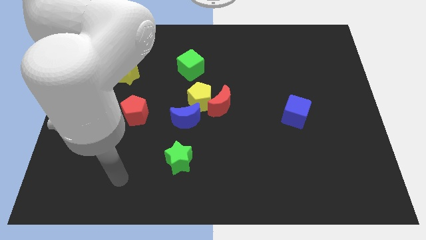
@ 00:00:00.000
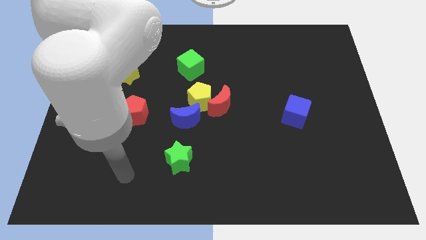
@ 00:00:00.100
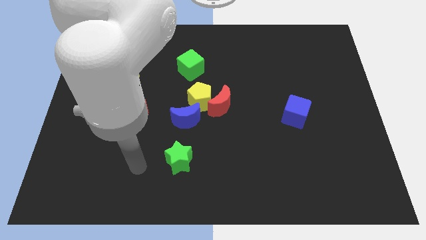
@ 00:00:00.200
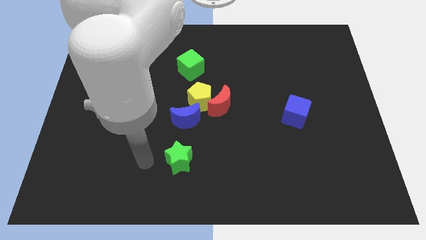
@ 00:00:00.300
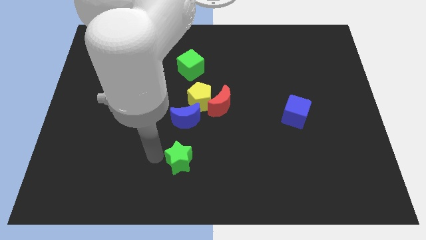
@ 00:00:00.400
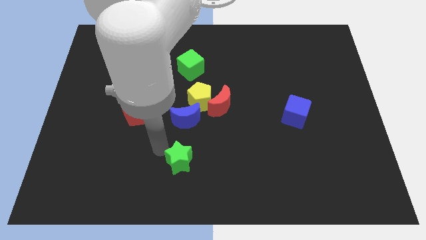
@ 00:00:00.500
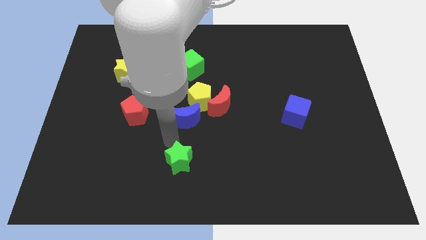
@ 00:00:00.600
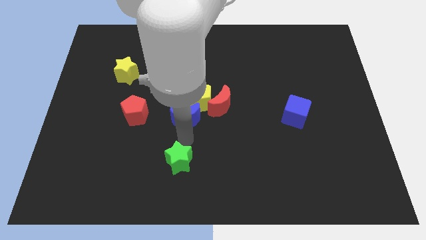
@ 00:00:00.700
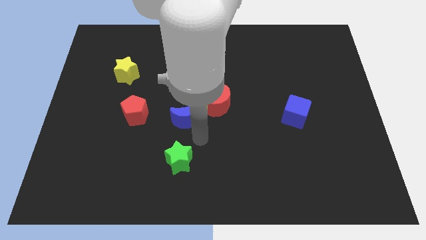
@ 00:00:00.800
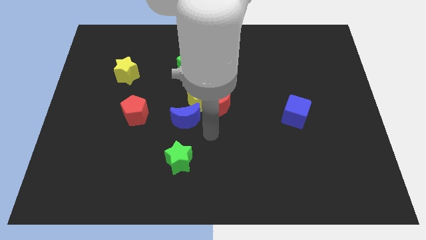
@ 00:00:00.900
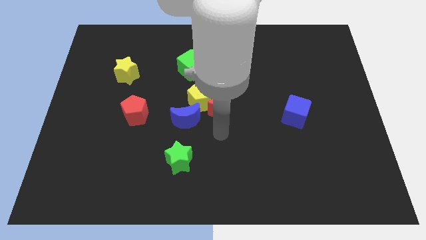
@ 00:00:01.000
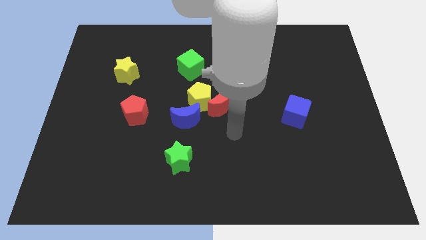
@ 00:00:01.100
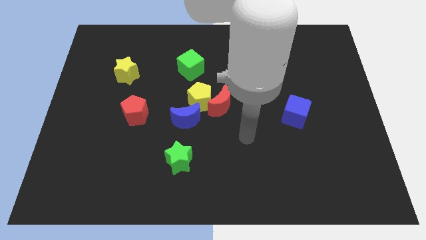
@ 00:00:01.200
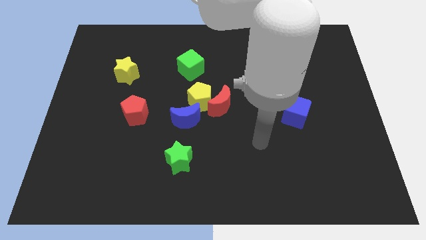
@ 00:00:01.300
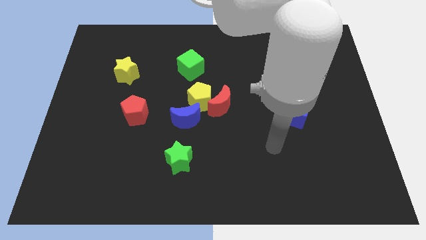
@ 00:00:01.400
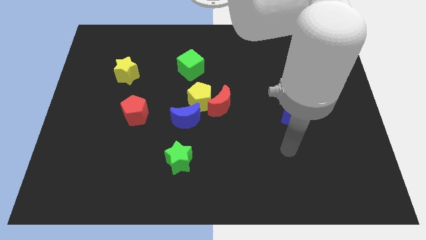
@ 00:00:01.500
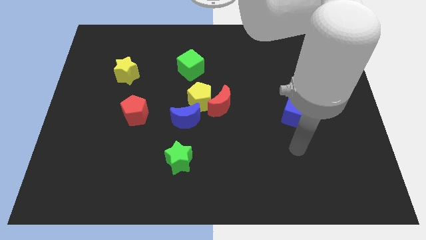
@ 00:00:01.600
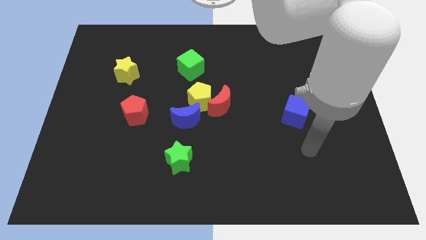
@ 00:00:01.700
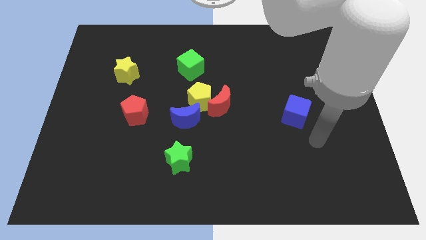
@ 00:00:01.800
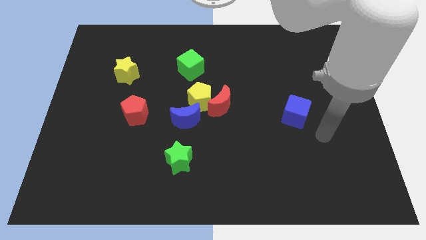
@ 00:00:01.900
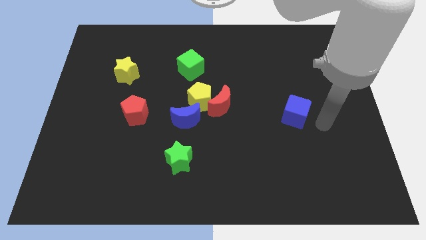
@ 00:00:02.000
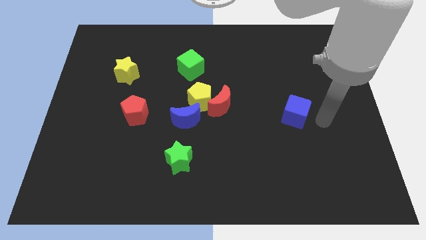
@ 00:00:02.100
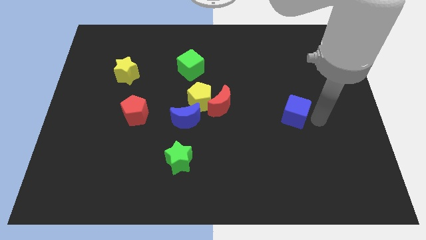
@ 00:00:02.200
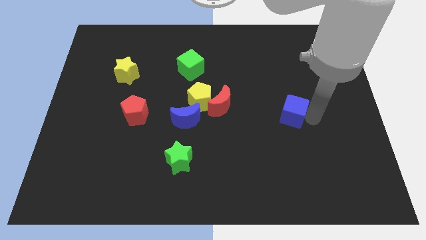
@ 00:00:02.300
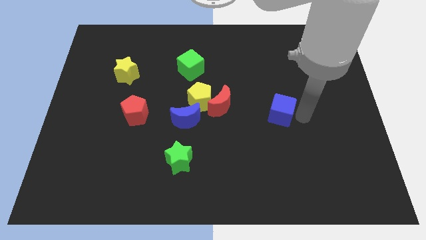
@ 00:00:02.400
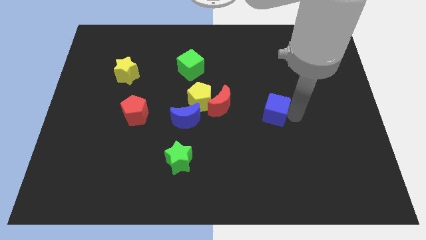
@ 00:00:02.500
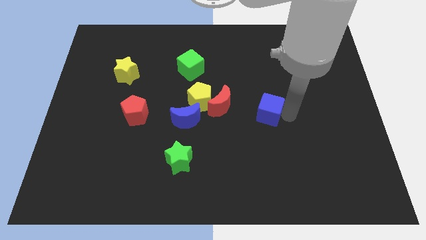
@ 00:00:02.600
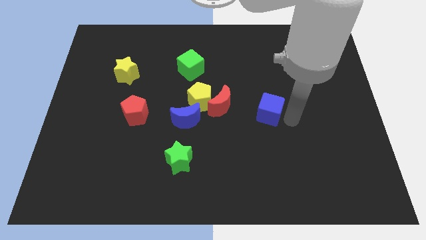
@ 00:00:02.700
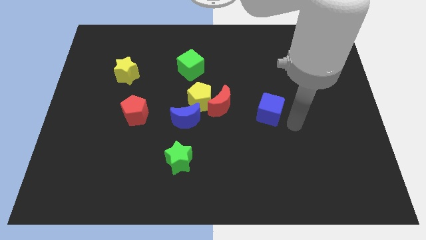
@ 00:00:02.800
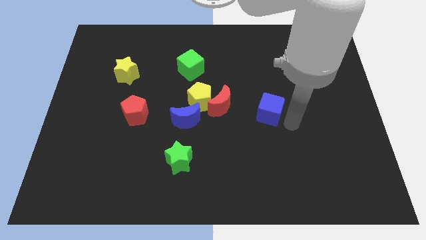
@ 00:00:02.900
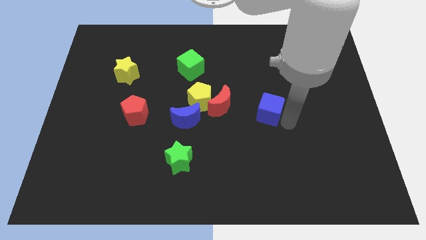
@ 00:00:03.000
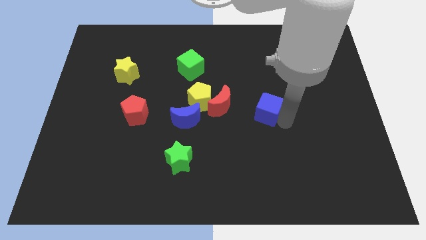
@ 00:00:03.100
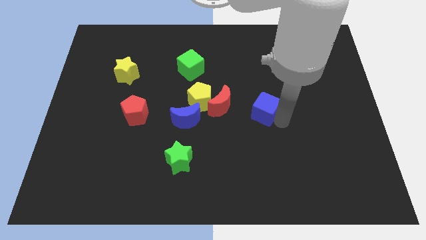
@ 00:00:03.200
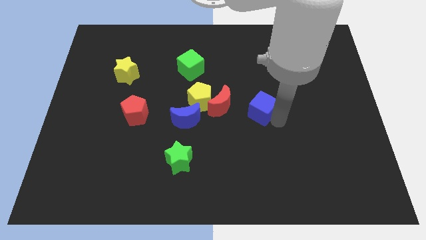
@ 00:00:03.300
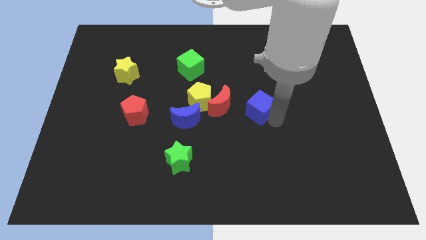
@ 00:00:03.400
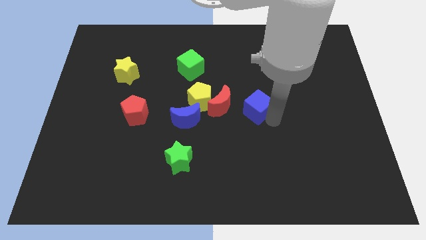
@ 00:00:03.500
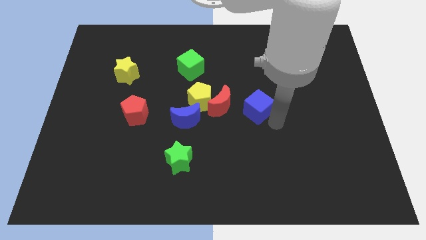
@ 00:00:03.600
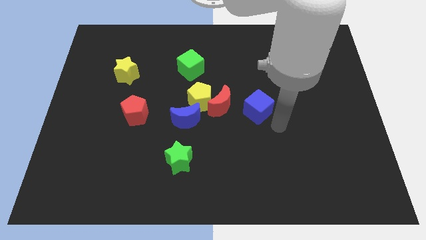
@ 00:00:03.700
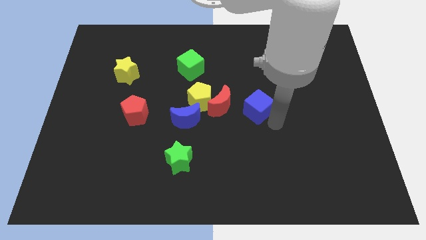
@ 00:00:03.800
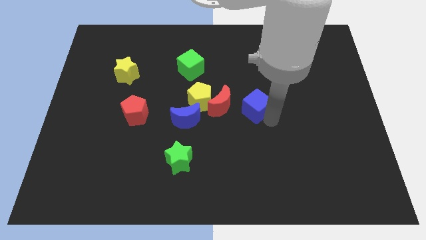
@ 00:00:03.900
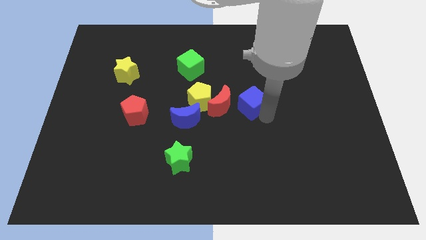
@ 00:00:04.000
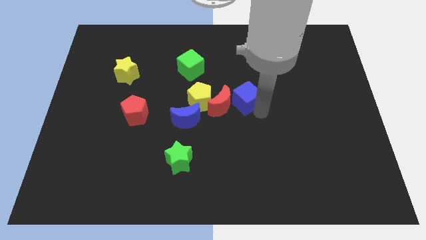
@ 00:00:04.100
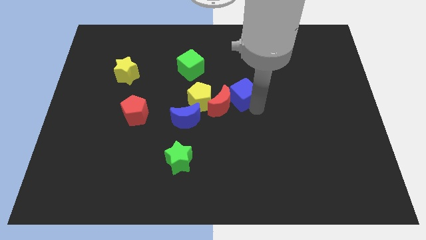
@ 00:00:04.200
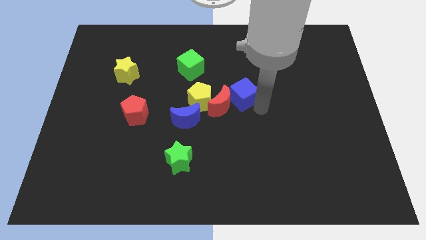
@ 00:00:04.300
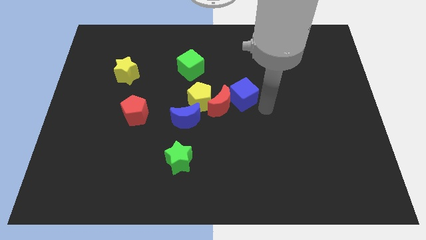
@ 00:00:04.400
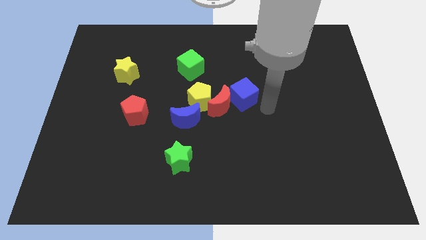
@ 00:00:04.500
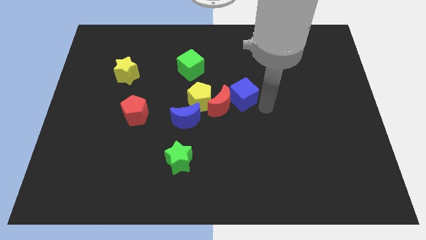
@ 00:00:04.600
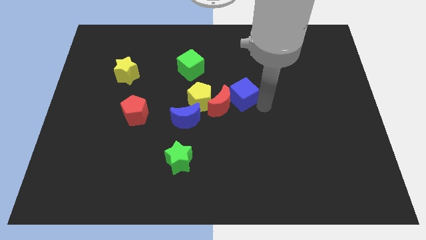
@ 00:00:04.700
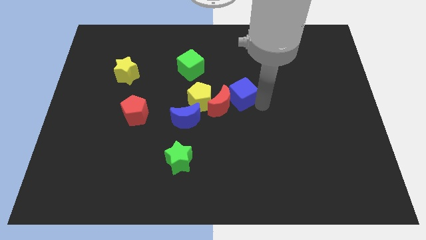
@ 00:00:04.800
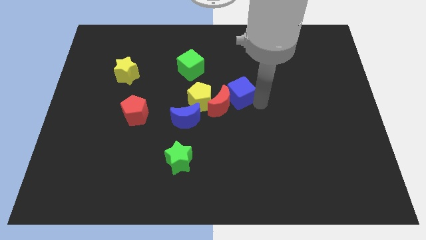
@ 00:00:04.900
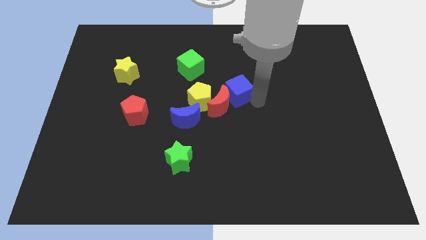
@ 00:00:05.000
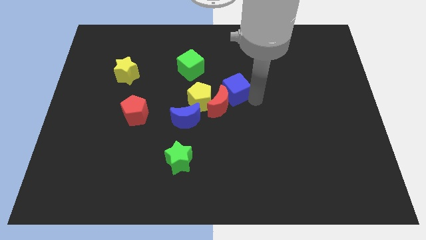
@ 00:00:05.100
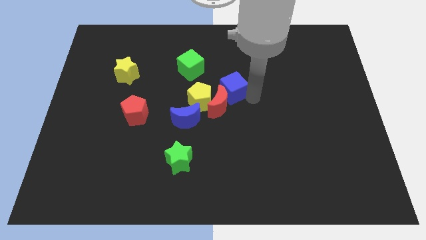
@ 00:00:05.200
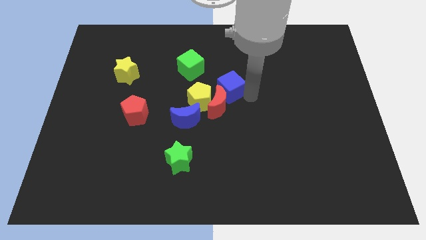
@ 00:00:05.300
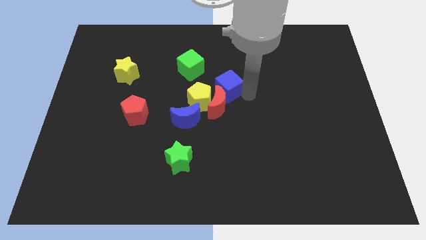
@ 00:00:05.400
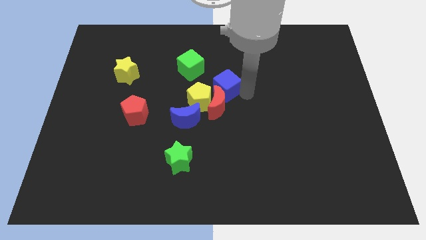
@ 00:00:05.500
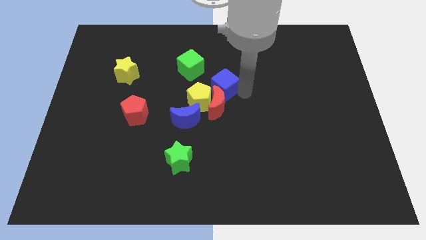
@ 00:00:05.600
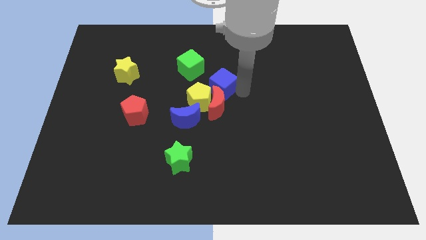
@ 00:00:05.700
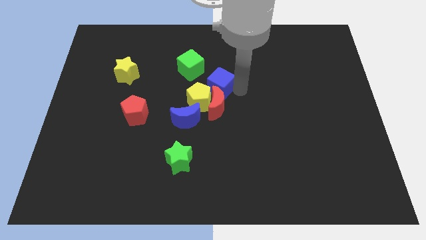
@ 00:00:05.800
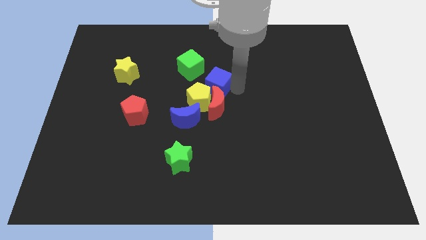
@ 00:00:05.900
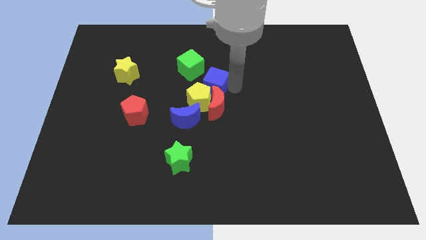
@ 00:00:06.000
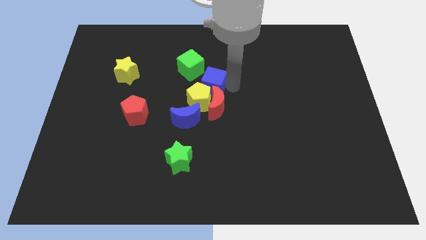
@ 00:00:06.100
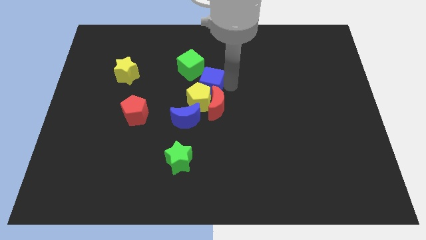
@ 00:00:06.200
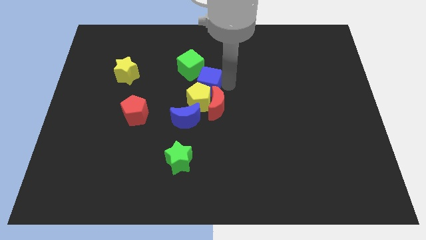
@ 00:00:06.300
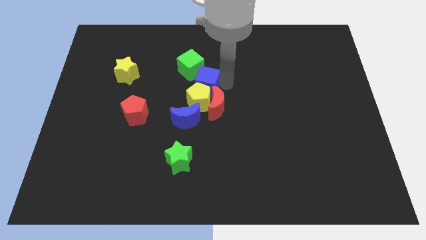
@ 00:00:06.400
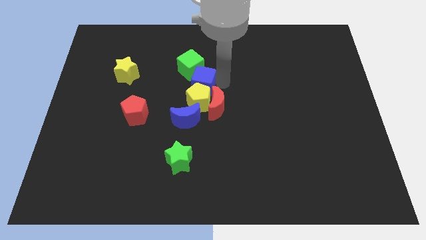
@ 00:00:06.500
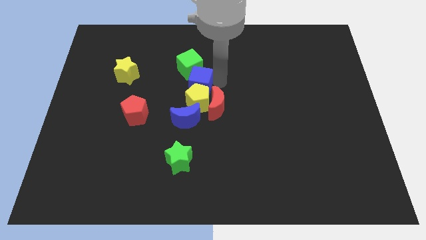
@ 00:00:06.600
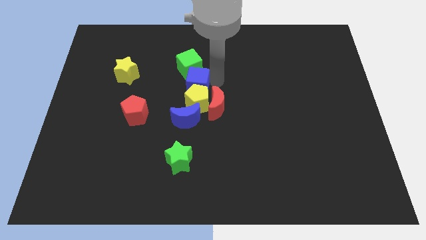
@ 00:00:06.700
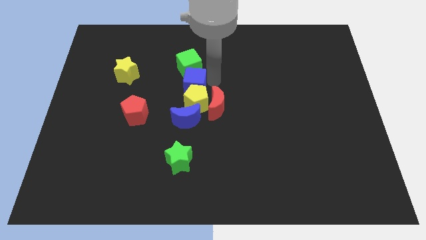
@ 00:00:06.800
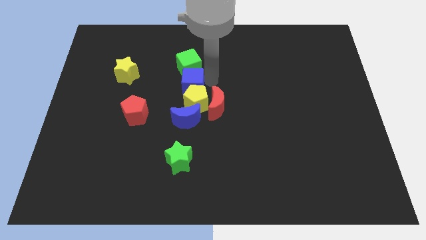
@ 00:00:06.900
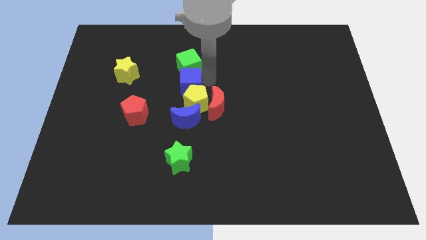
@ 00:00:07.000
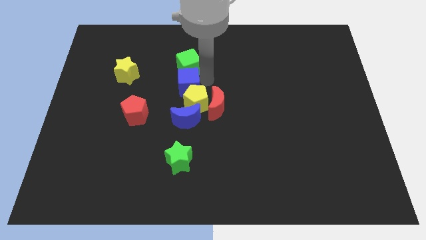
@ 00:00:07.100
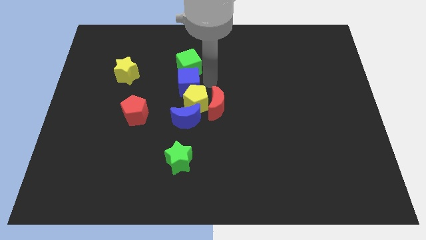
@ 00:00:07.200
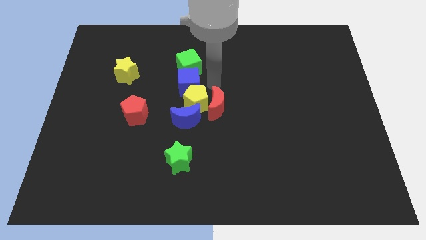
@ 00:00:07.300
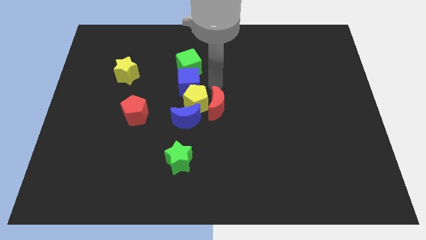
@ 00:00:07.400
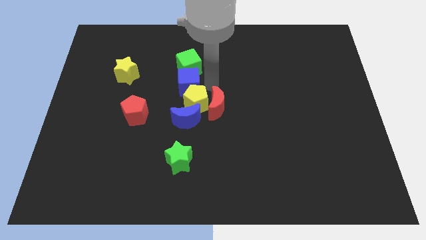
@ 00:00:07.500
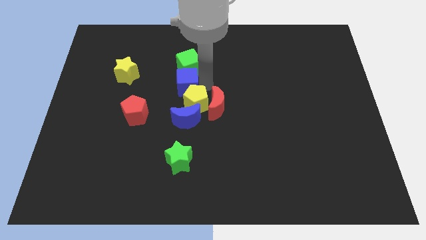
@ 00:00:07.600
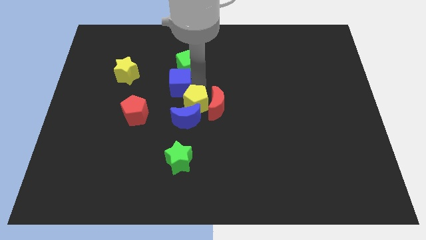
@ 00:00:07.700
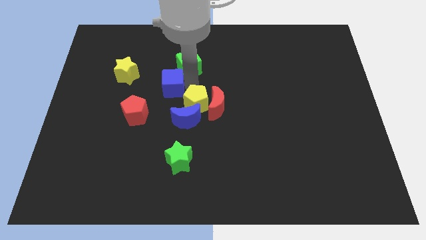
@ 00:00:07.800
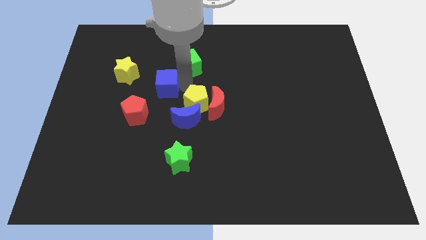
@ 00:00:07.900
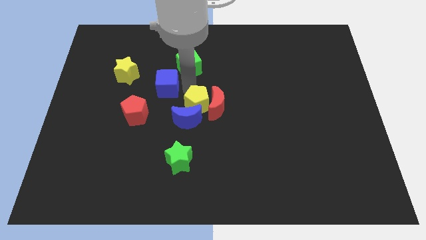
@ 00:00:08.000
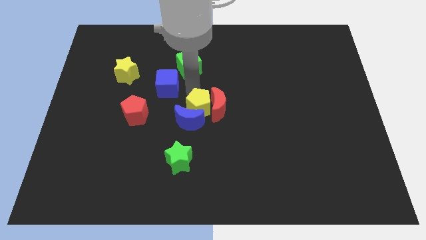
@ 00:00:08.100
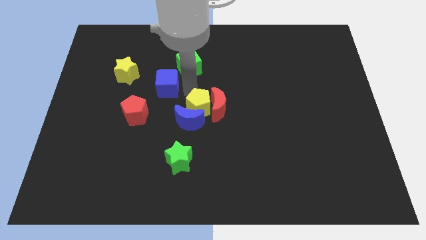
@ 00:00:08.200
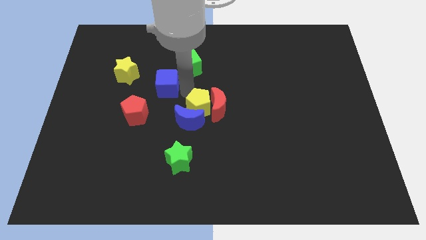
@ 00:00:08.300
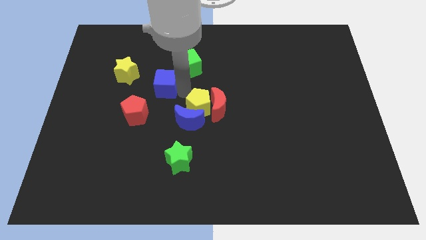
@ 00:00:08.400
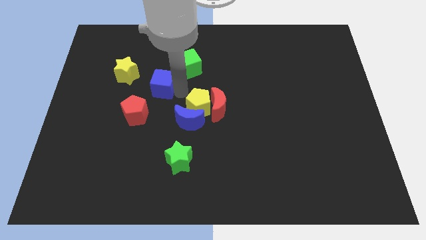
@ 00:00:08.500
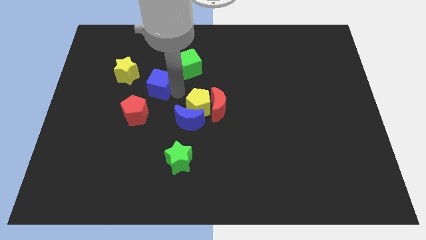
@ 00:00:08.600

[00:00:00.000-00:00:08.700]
move the blue cube above the red pentagon
